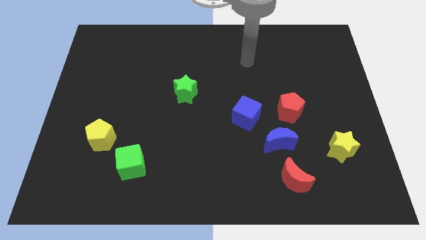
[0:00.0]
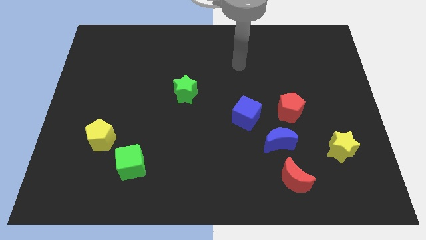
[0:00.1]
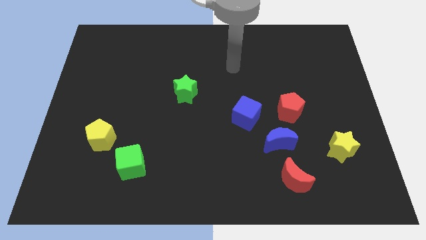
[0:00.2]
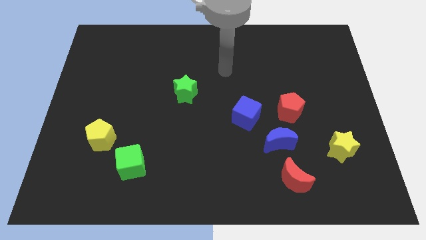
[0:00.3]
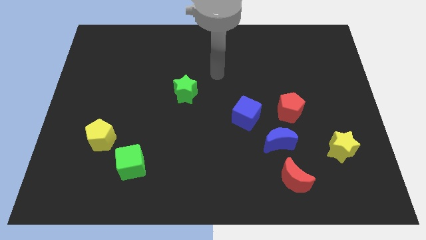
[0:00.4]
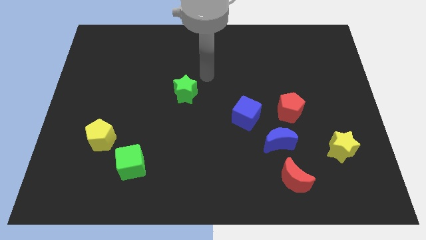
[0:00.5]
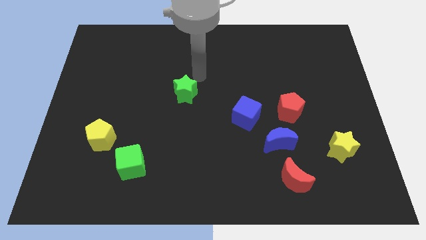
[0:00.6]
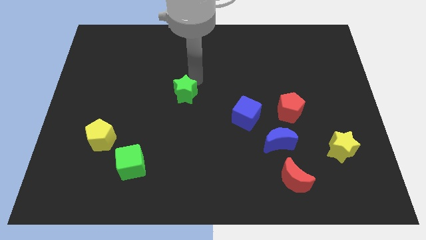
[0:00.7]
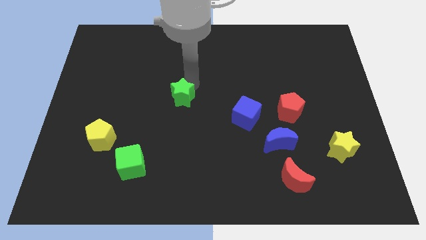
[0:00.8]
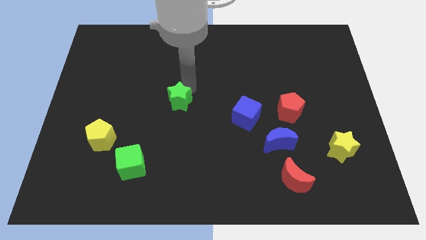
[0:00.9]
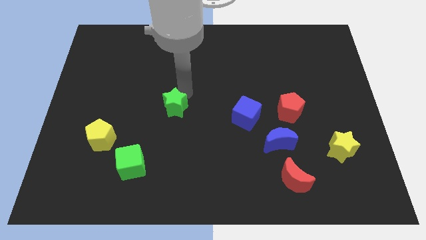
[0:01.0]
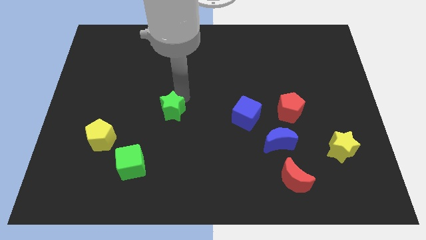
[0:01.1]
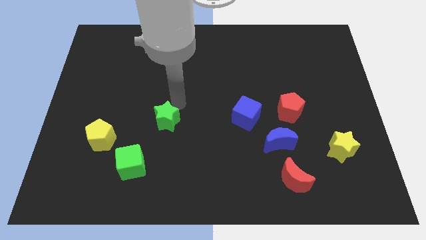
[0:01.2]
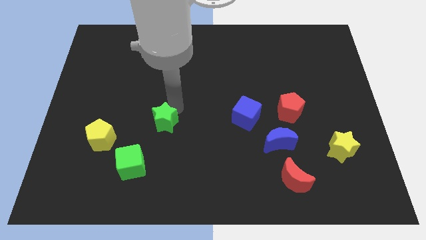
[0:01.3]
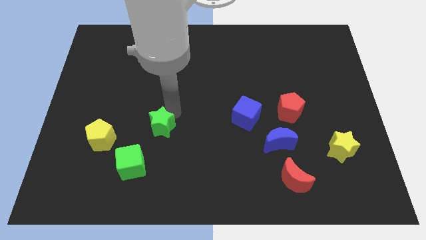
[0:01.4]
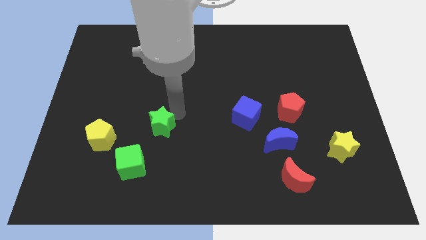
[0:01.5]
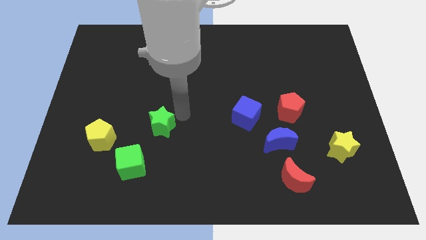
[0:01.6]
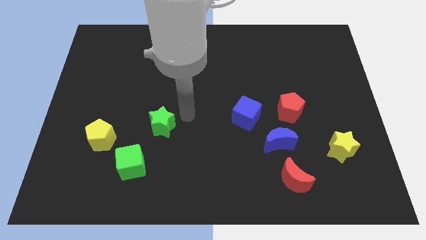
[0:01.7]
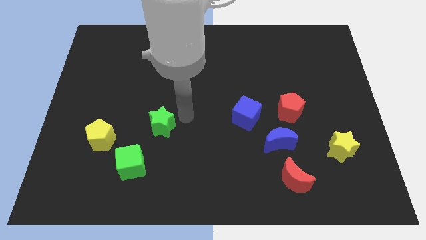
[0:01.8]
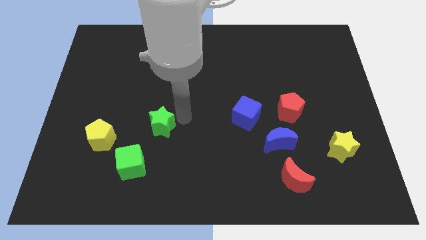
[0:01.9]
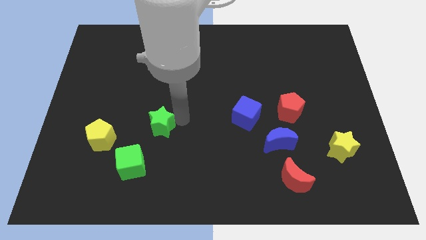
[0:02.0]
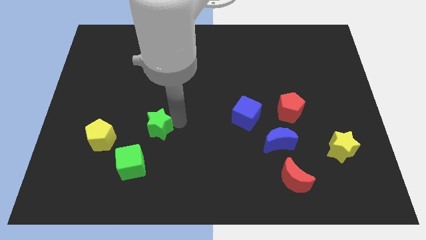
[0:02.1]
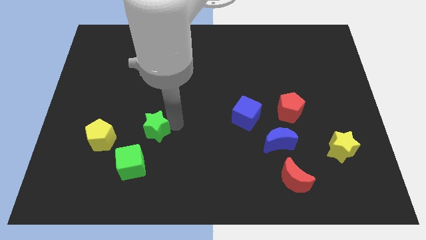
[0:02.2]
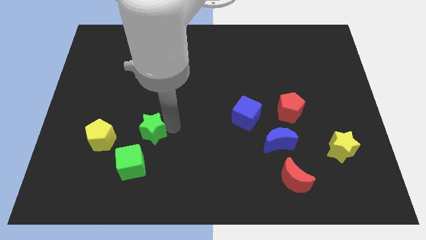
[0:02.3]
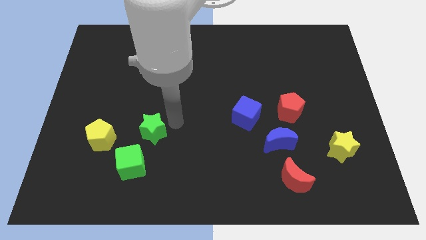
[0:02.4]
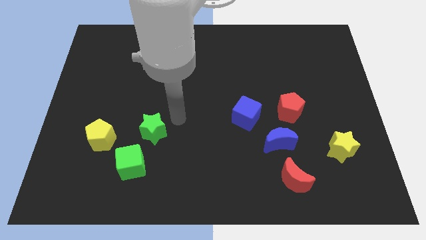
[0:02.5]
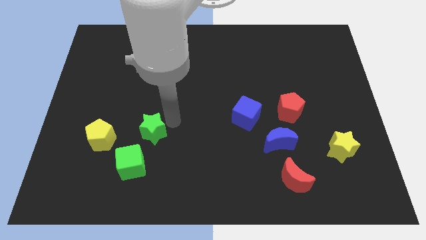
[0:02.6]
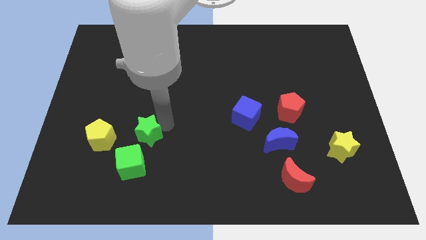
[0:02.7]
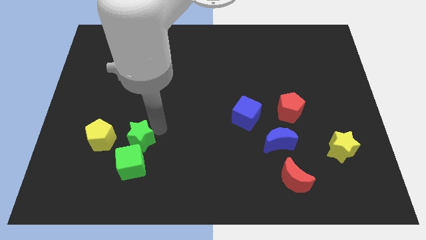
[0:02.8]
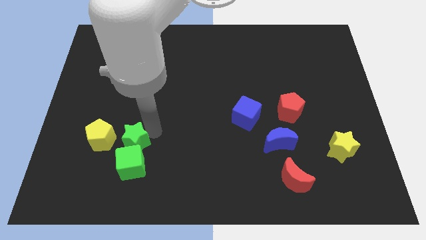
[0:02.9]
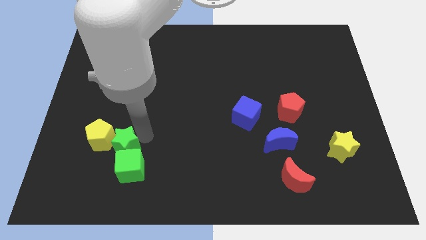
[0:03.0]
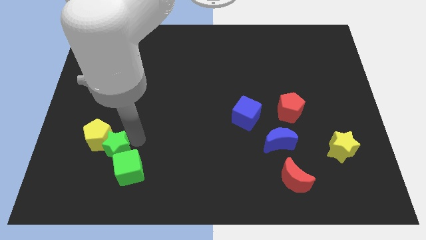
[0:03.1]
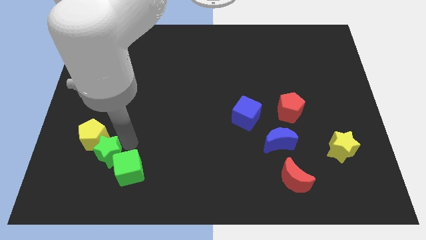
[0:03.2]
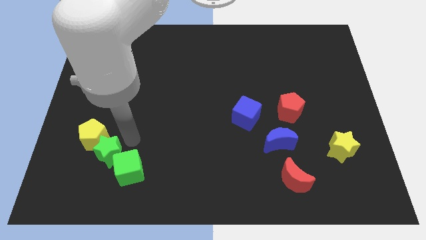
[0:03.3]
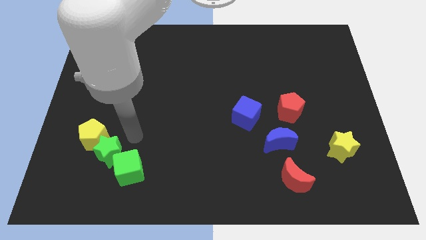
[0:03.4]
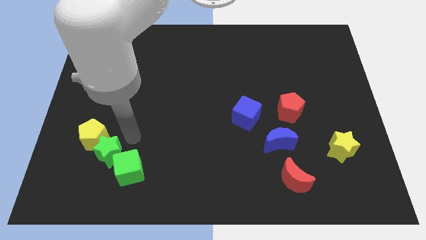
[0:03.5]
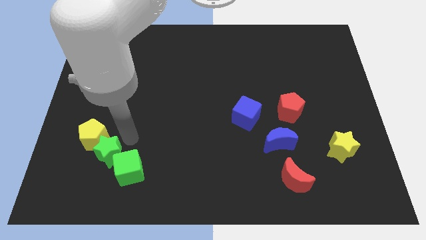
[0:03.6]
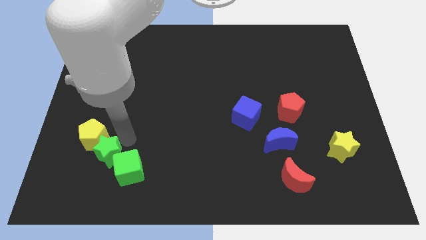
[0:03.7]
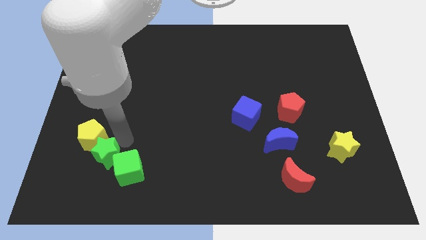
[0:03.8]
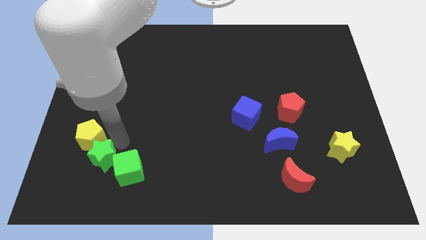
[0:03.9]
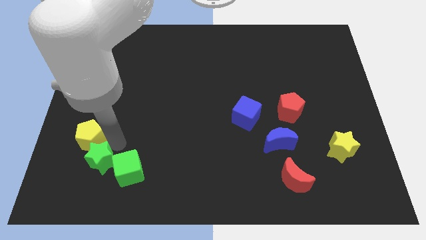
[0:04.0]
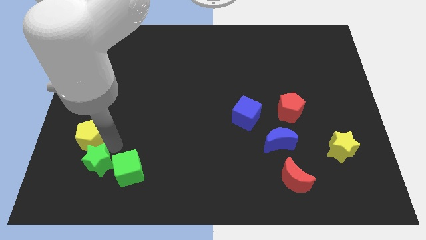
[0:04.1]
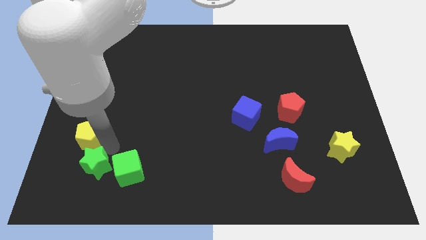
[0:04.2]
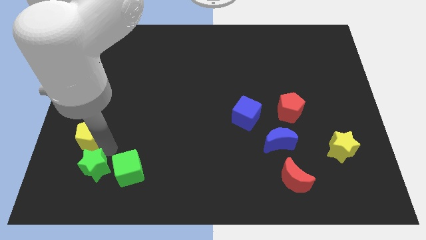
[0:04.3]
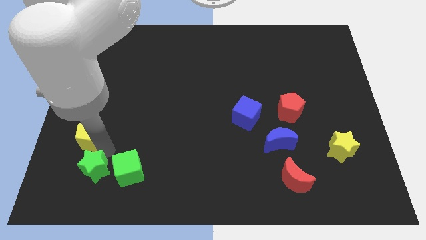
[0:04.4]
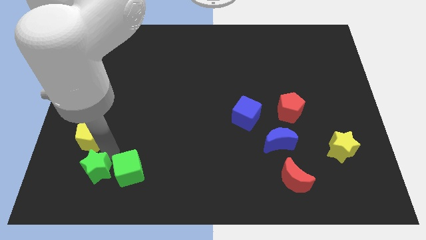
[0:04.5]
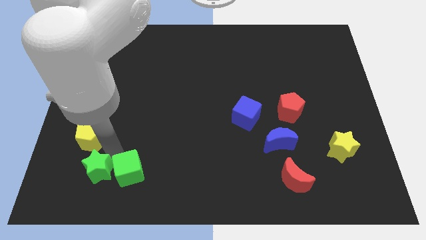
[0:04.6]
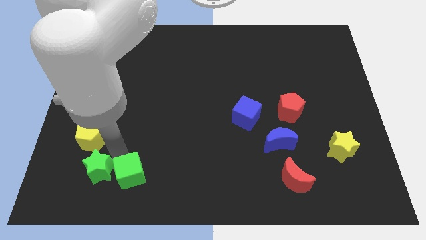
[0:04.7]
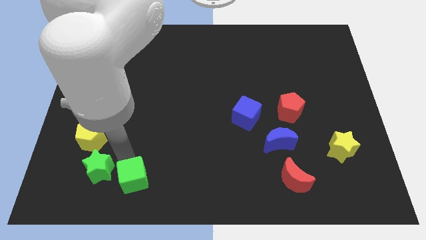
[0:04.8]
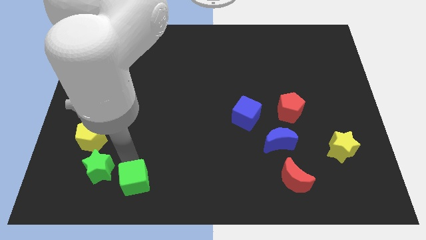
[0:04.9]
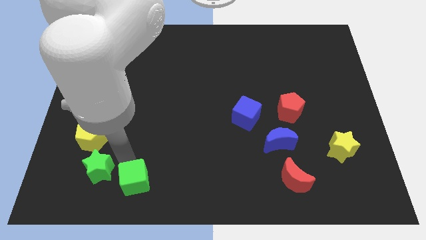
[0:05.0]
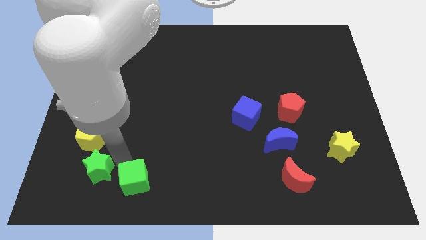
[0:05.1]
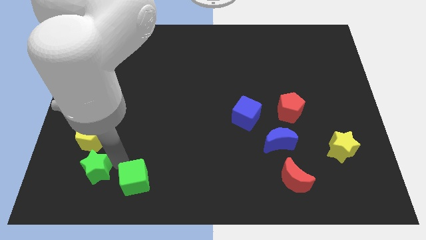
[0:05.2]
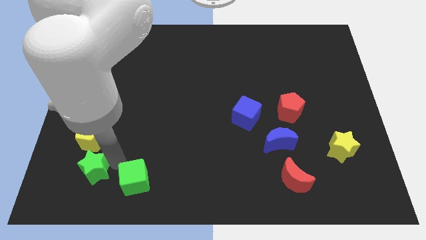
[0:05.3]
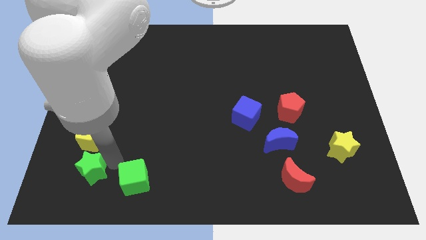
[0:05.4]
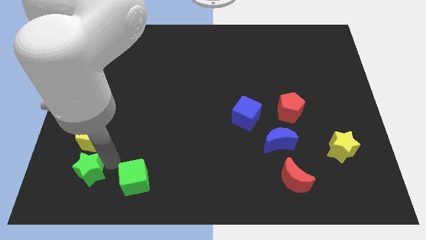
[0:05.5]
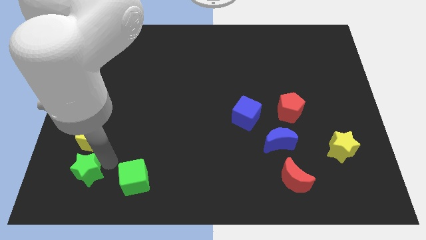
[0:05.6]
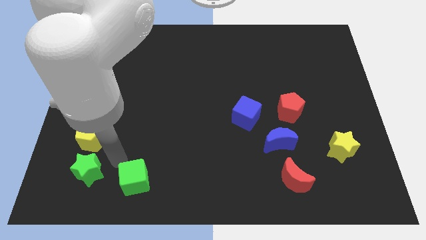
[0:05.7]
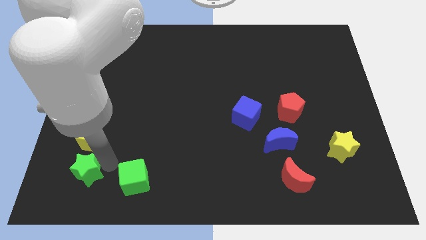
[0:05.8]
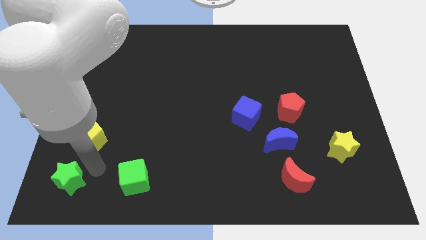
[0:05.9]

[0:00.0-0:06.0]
move the green star to the bottom left of the board

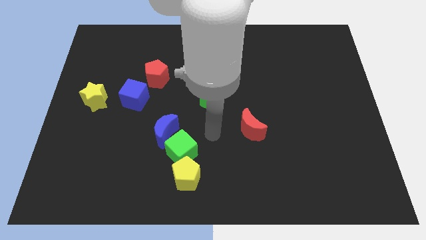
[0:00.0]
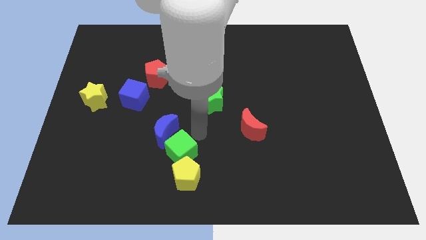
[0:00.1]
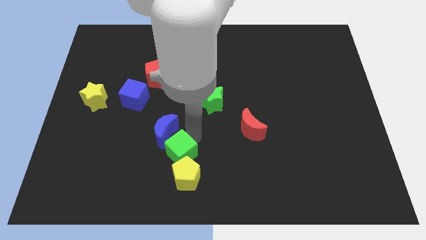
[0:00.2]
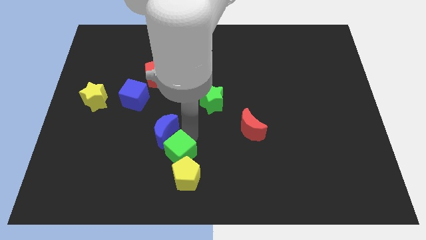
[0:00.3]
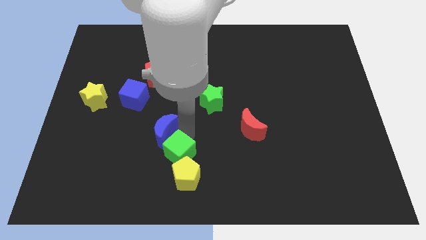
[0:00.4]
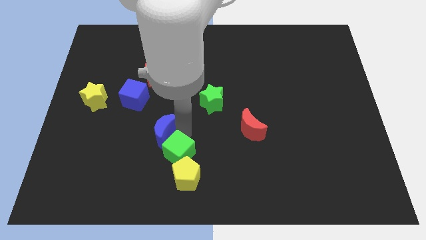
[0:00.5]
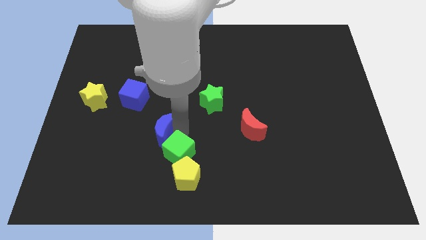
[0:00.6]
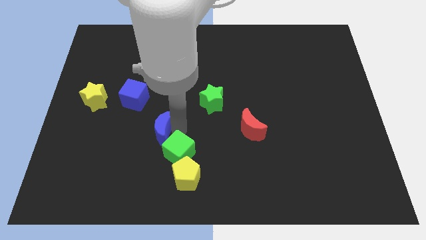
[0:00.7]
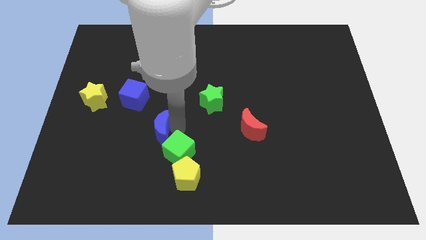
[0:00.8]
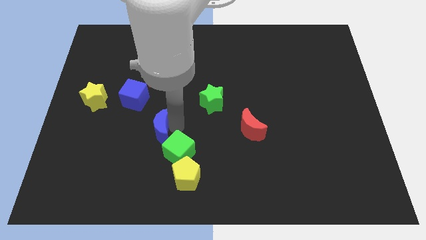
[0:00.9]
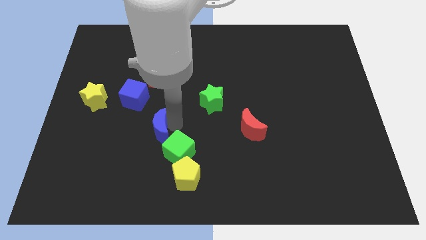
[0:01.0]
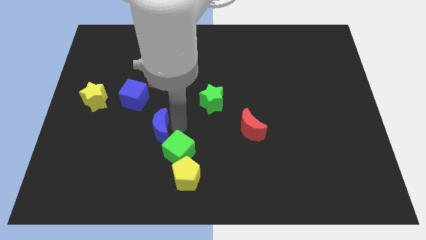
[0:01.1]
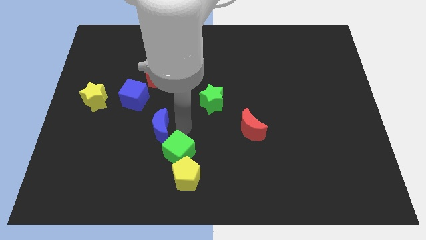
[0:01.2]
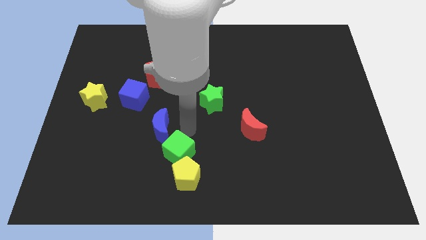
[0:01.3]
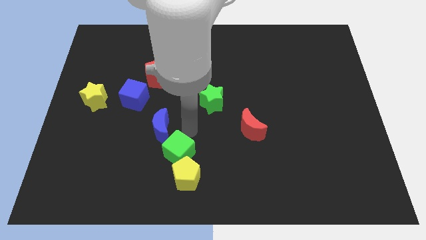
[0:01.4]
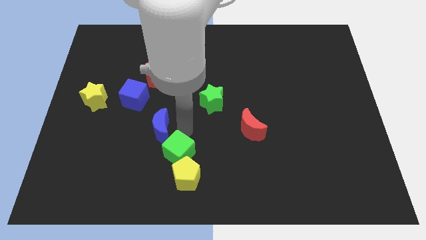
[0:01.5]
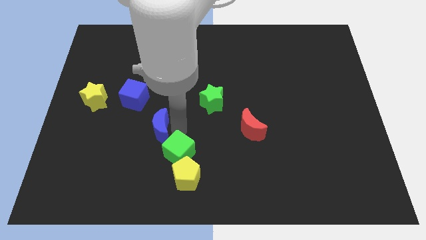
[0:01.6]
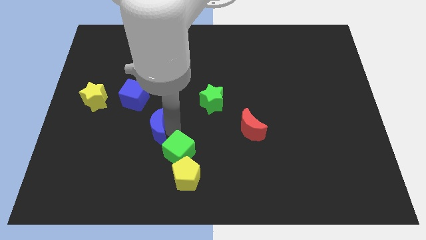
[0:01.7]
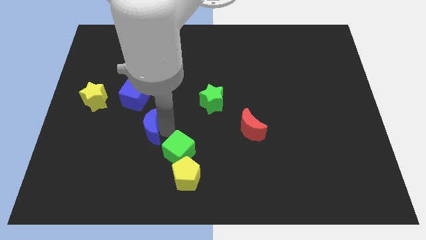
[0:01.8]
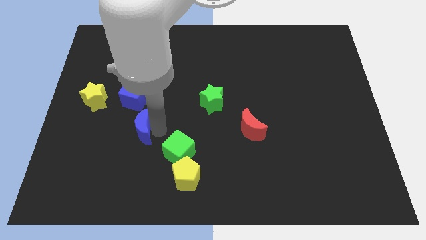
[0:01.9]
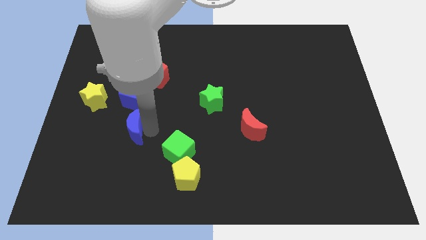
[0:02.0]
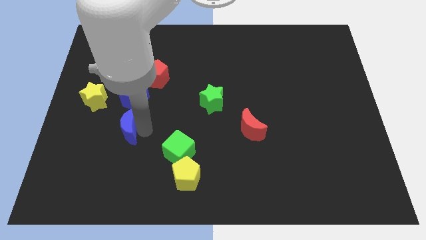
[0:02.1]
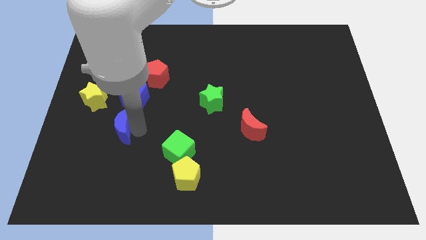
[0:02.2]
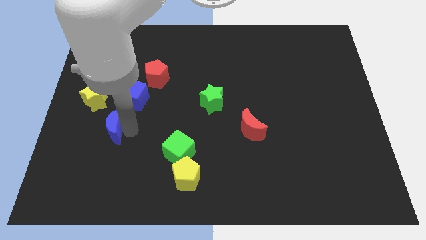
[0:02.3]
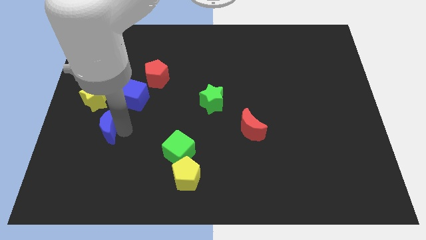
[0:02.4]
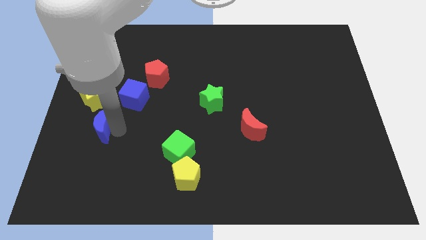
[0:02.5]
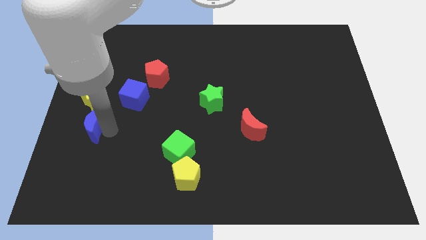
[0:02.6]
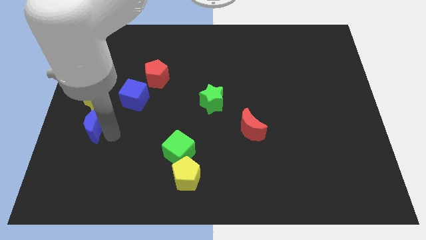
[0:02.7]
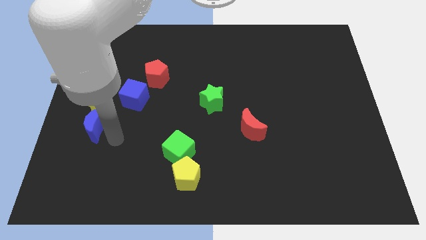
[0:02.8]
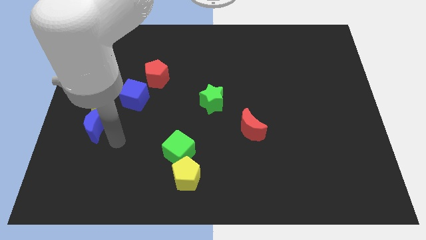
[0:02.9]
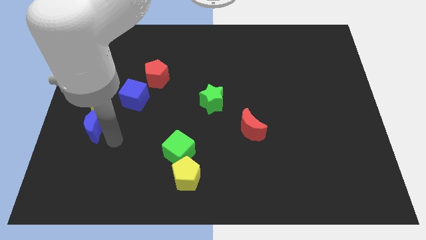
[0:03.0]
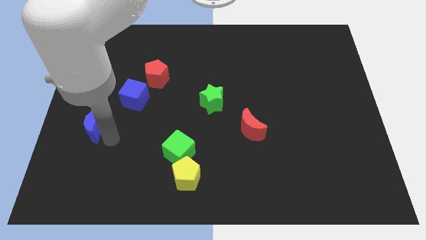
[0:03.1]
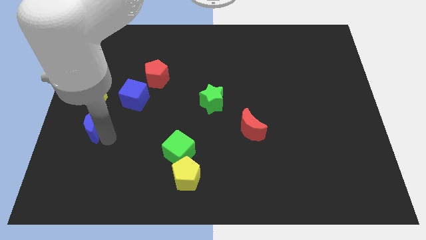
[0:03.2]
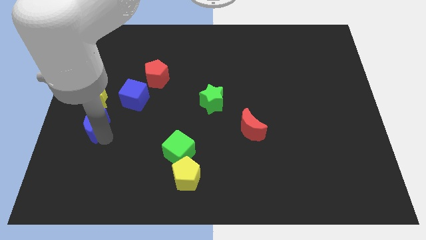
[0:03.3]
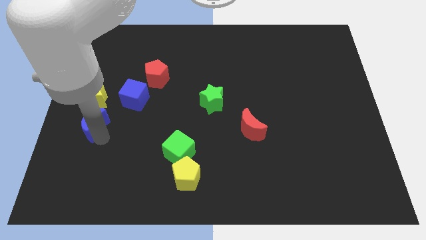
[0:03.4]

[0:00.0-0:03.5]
move the blue moon to the center left
